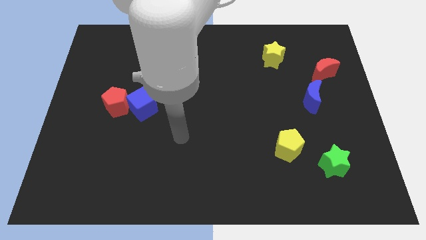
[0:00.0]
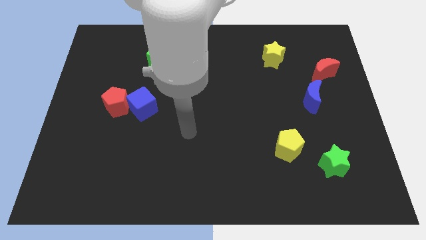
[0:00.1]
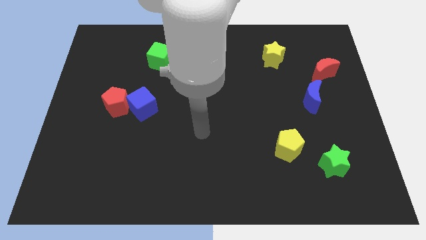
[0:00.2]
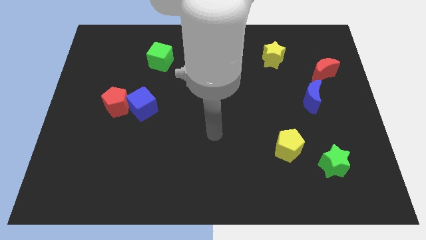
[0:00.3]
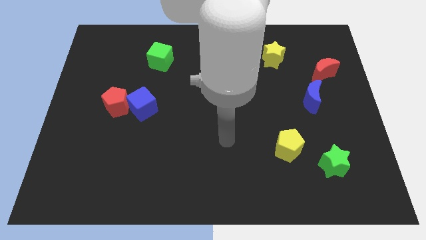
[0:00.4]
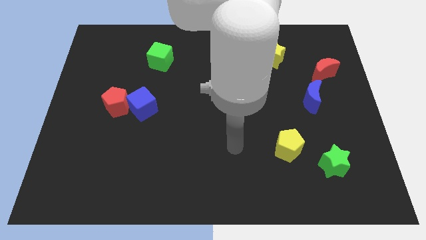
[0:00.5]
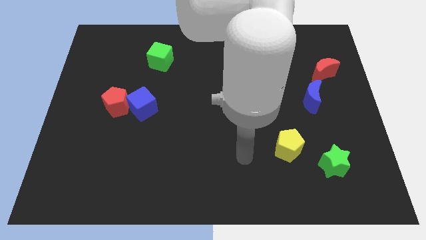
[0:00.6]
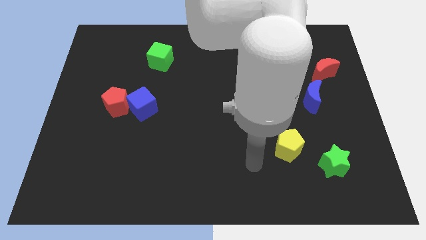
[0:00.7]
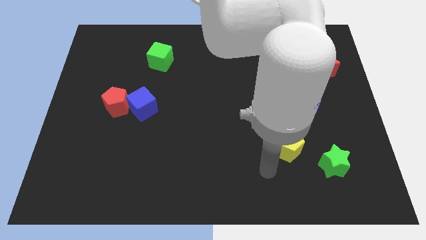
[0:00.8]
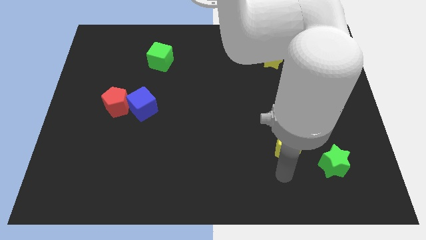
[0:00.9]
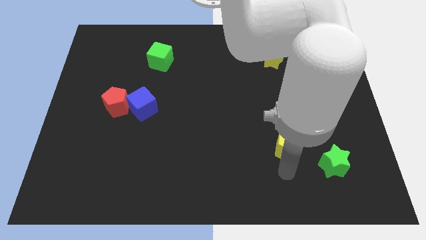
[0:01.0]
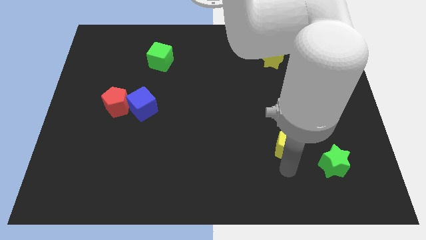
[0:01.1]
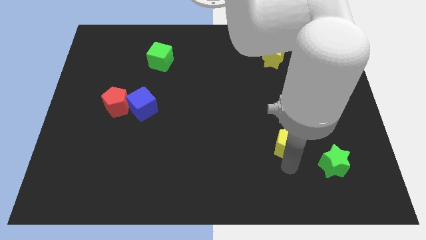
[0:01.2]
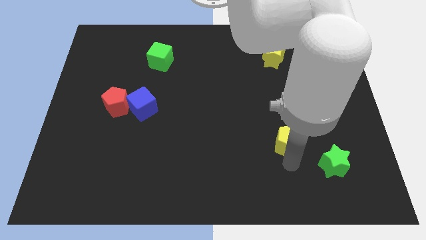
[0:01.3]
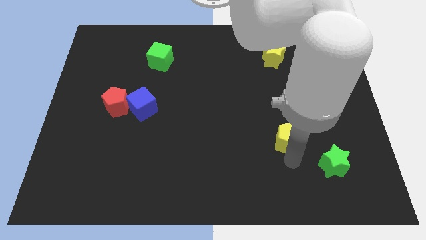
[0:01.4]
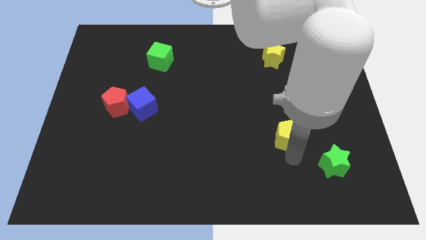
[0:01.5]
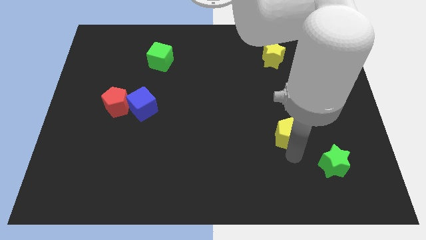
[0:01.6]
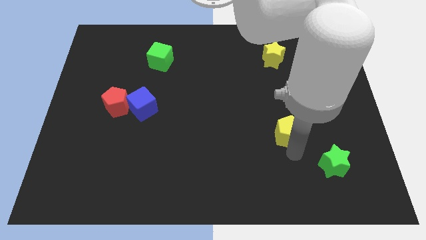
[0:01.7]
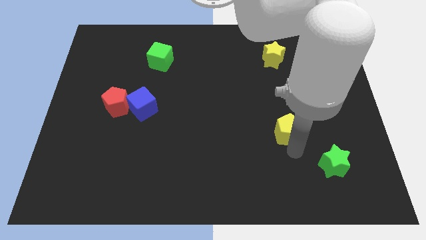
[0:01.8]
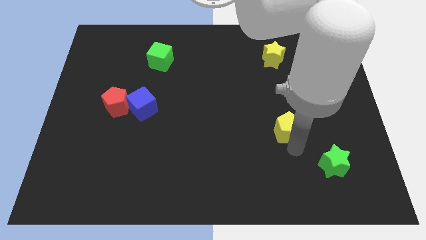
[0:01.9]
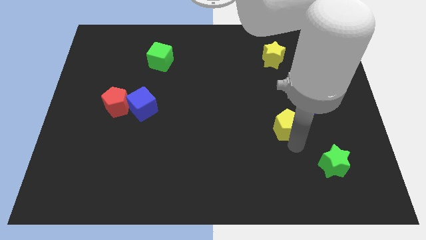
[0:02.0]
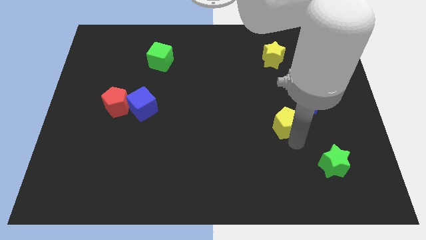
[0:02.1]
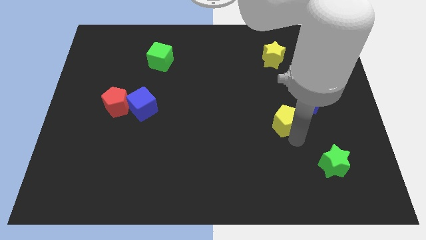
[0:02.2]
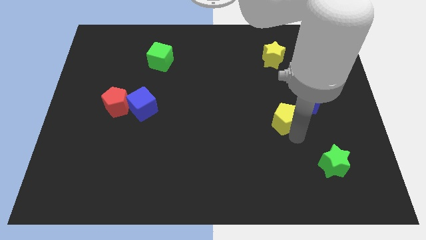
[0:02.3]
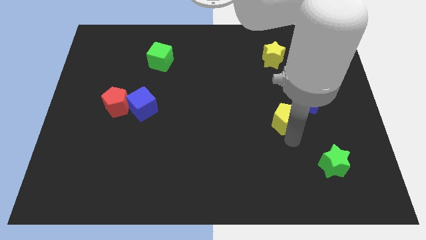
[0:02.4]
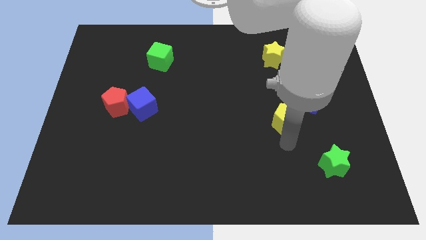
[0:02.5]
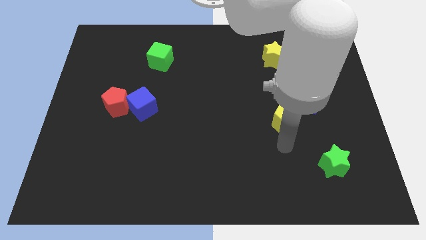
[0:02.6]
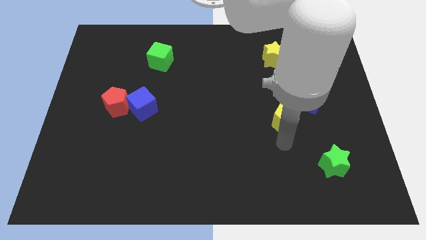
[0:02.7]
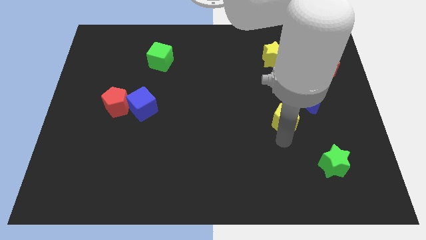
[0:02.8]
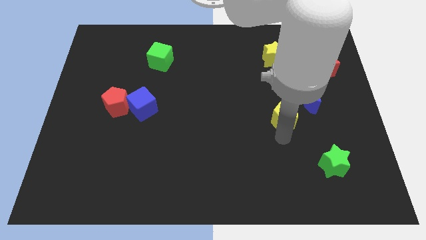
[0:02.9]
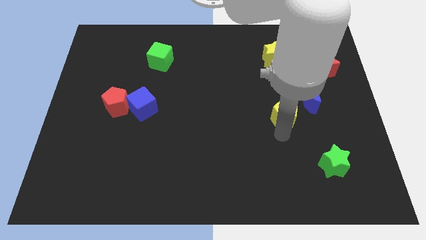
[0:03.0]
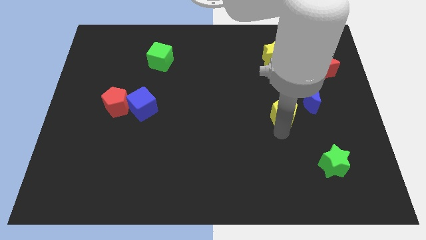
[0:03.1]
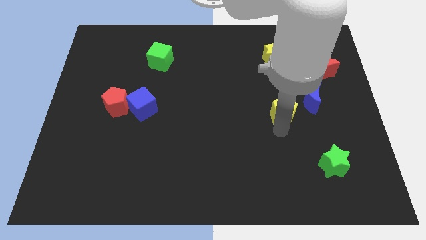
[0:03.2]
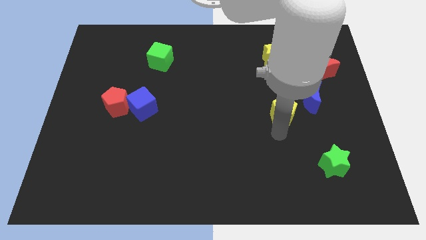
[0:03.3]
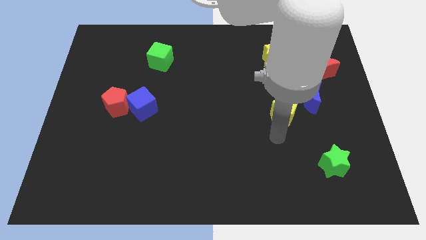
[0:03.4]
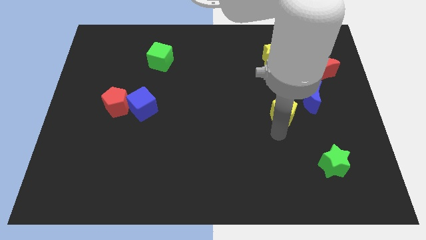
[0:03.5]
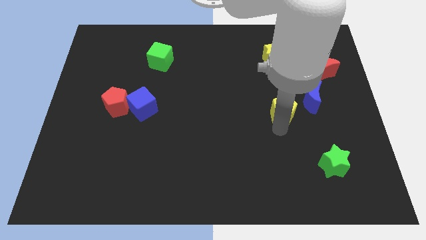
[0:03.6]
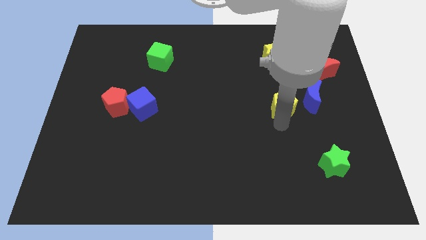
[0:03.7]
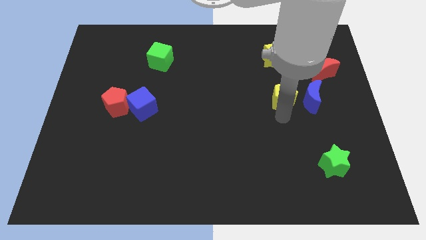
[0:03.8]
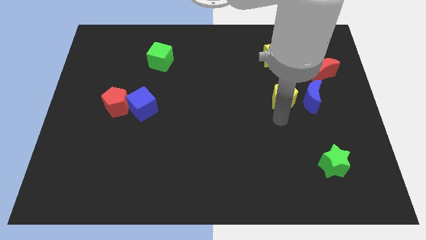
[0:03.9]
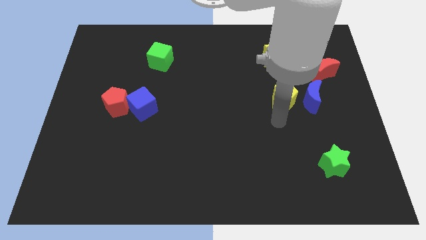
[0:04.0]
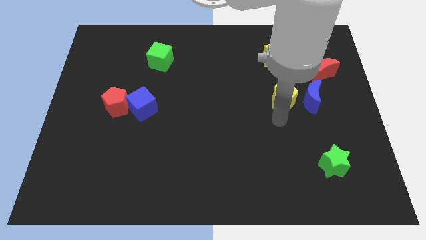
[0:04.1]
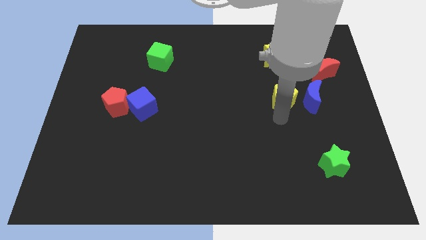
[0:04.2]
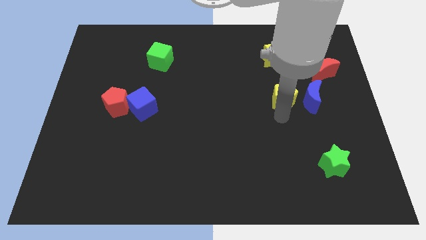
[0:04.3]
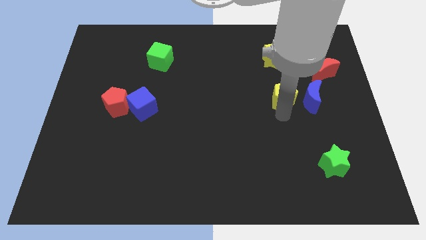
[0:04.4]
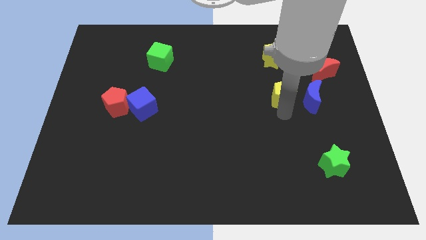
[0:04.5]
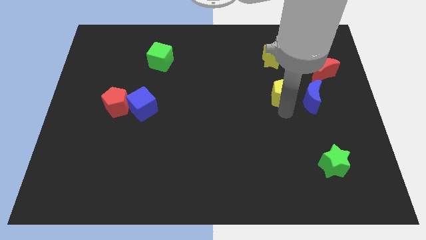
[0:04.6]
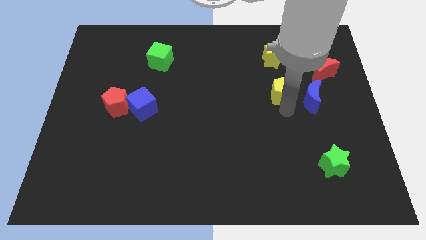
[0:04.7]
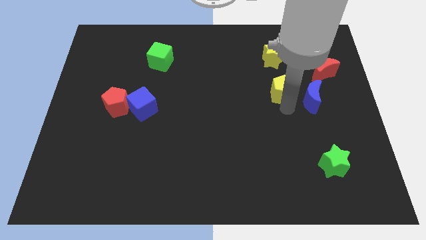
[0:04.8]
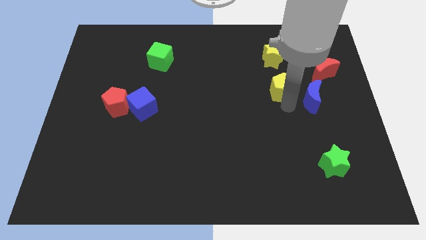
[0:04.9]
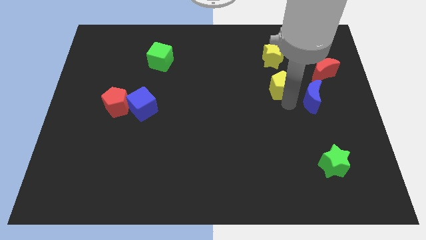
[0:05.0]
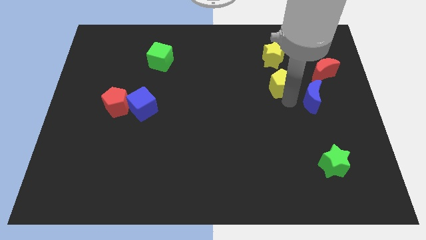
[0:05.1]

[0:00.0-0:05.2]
put the yellow pentagon just left of the red moon

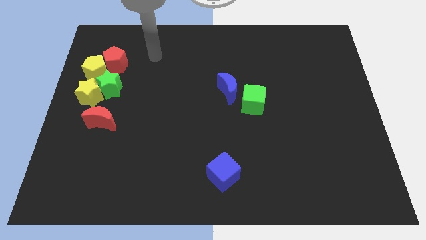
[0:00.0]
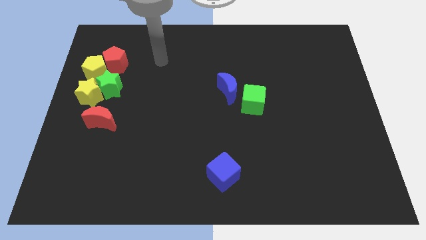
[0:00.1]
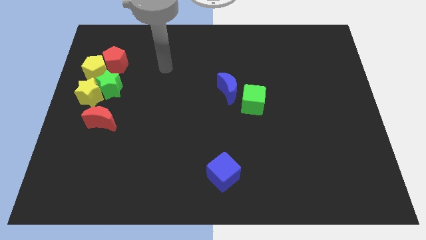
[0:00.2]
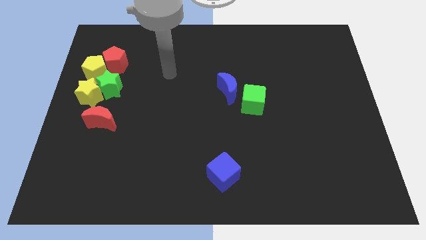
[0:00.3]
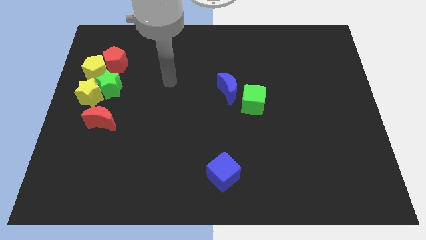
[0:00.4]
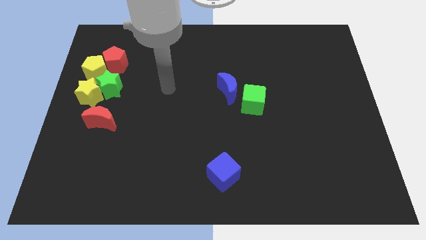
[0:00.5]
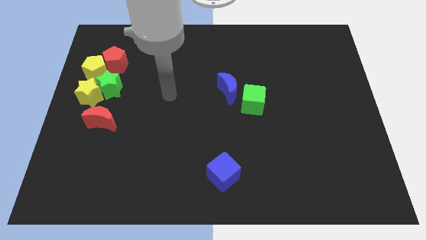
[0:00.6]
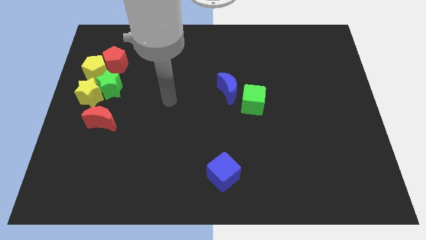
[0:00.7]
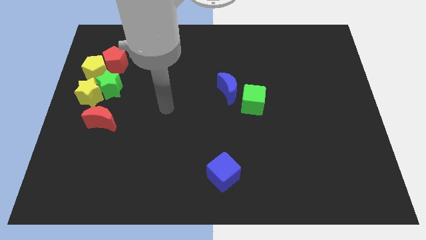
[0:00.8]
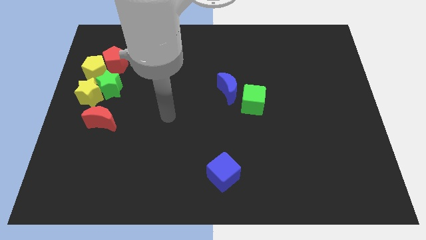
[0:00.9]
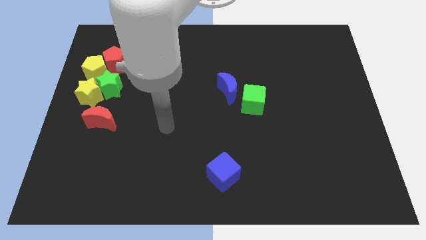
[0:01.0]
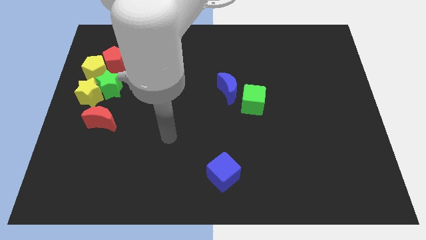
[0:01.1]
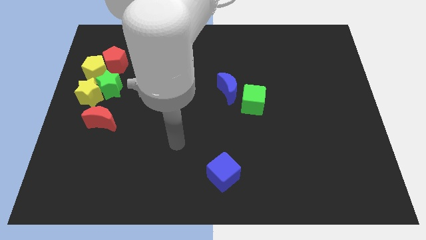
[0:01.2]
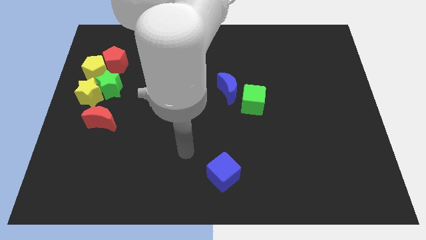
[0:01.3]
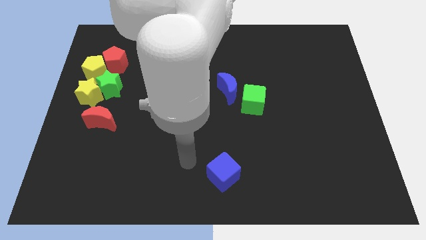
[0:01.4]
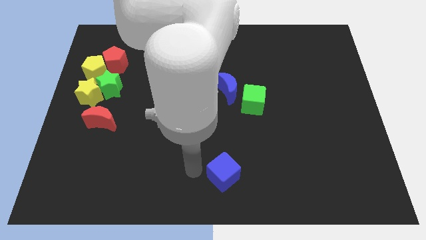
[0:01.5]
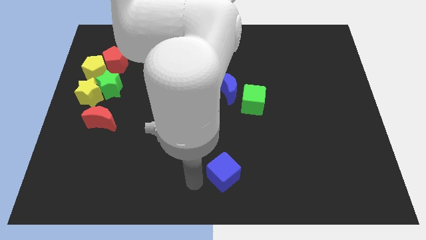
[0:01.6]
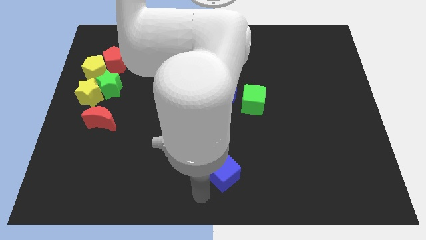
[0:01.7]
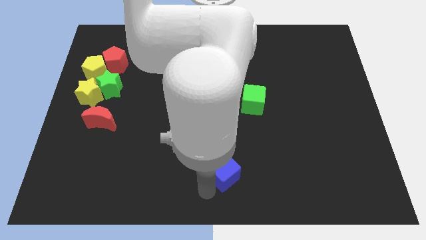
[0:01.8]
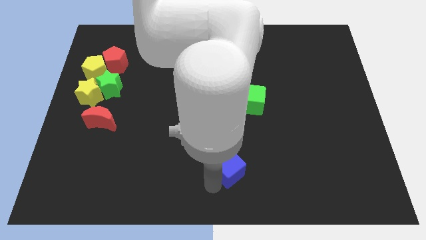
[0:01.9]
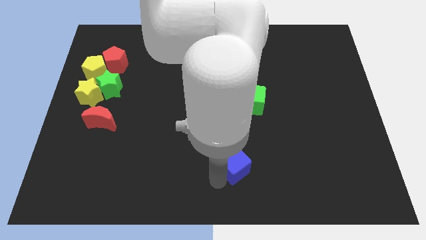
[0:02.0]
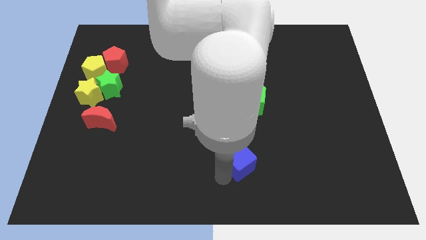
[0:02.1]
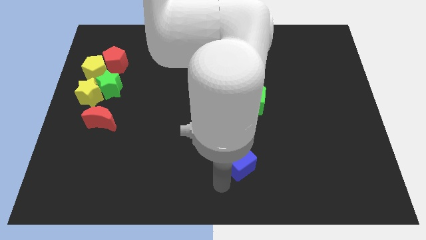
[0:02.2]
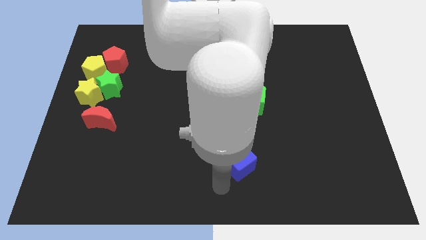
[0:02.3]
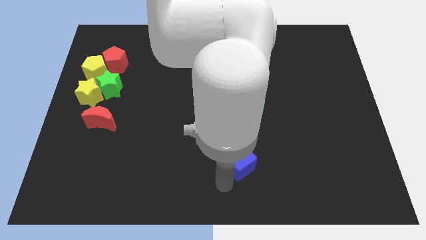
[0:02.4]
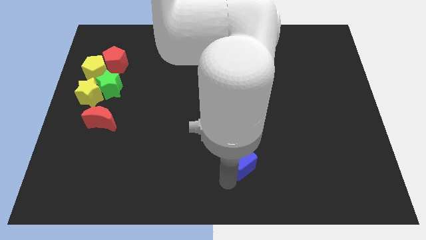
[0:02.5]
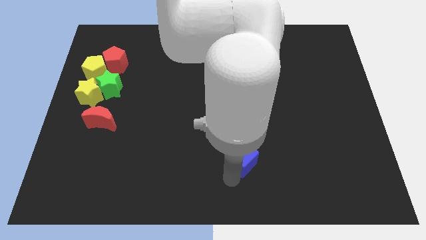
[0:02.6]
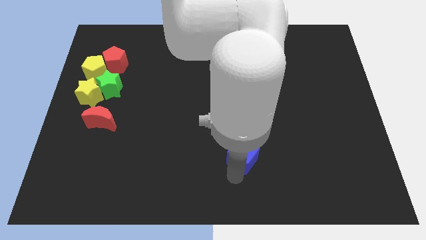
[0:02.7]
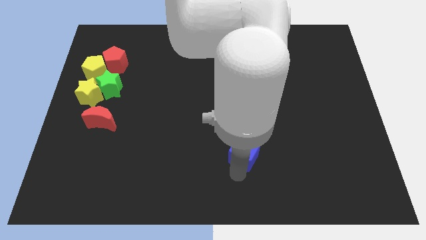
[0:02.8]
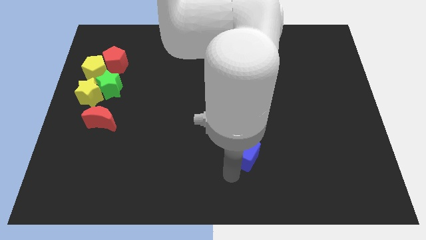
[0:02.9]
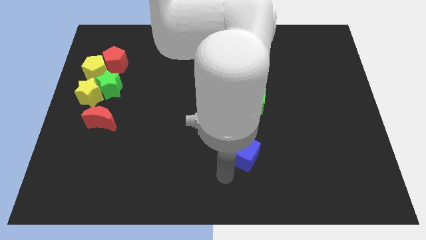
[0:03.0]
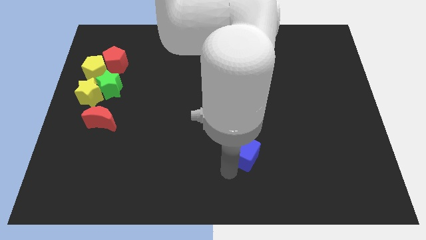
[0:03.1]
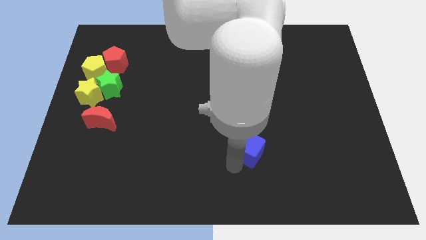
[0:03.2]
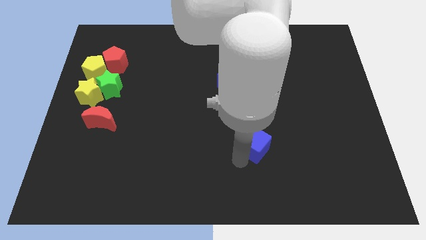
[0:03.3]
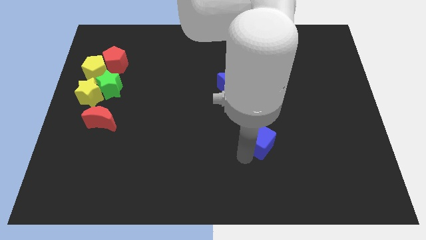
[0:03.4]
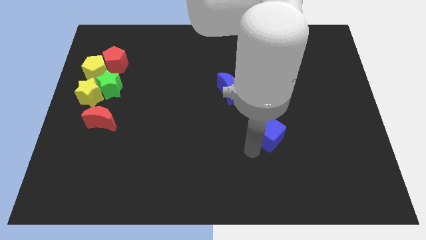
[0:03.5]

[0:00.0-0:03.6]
move the blue cube to the bottom right of the green cube
